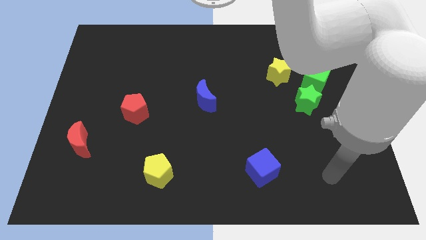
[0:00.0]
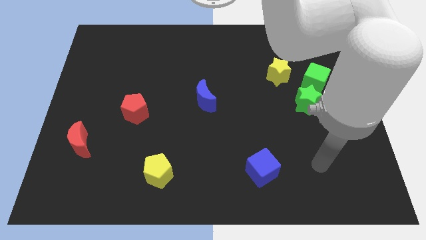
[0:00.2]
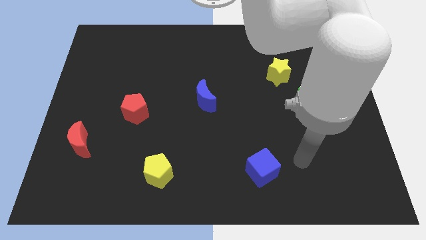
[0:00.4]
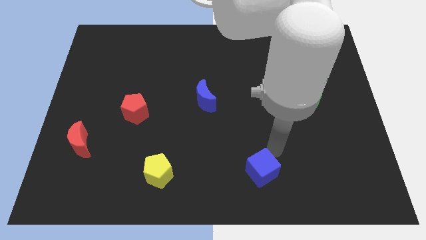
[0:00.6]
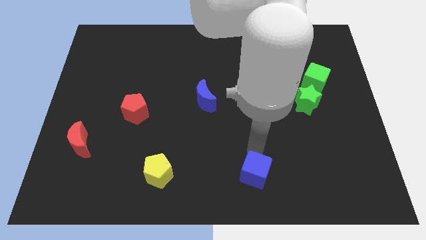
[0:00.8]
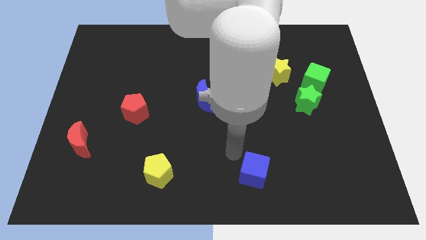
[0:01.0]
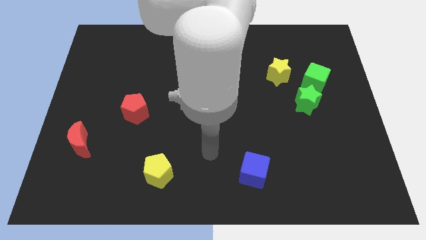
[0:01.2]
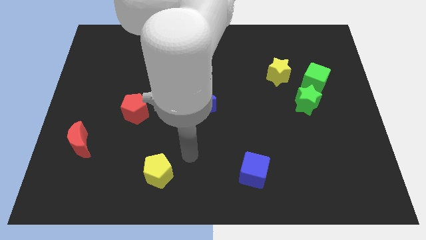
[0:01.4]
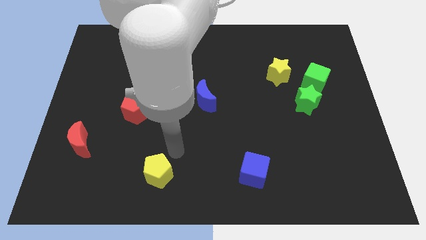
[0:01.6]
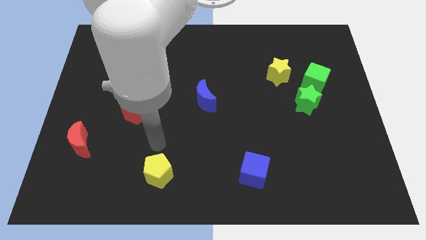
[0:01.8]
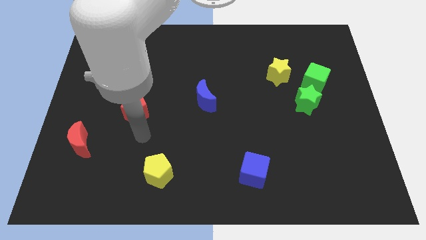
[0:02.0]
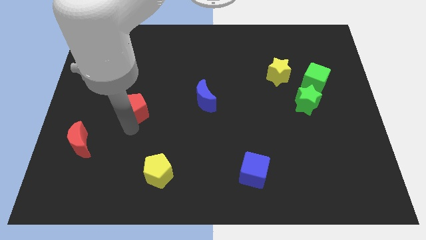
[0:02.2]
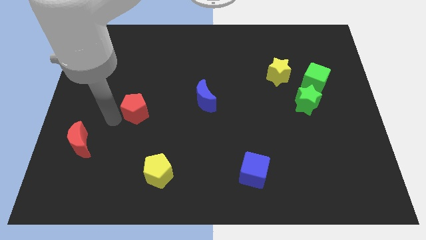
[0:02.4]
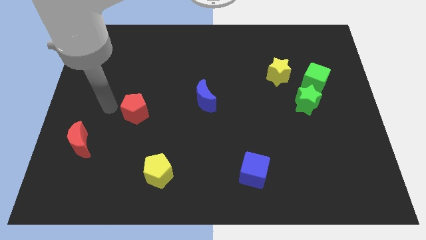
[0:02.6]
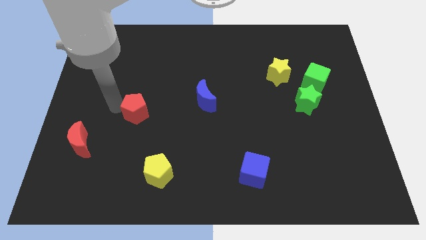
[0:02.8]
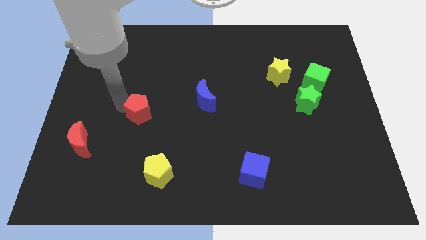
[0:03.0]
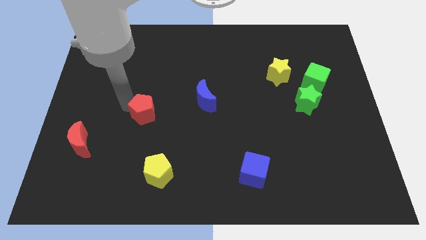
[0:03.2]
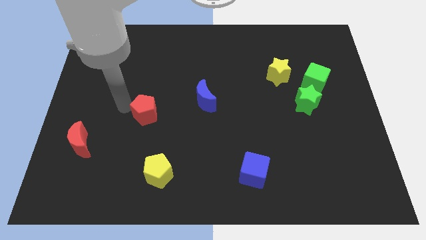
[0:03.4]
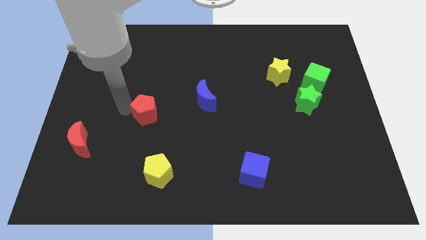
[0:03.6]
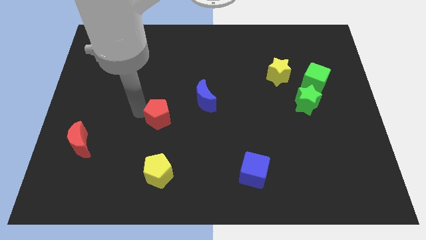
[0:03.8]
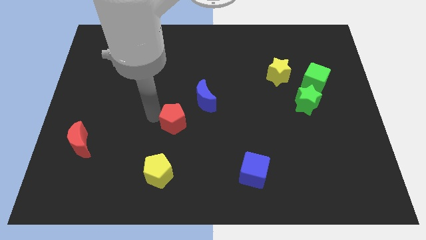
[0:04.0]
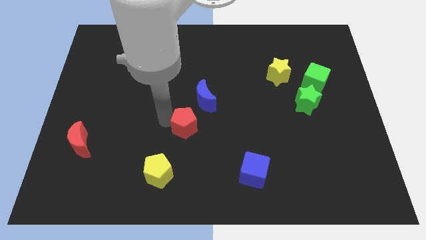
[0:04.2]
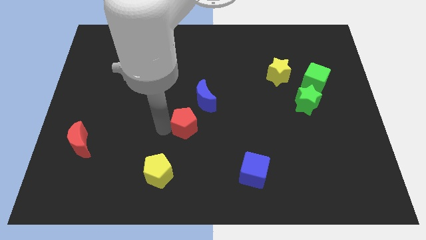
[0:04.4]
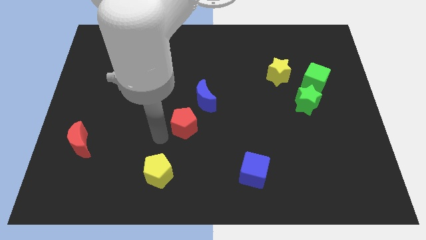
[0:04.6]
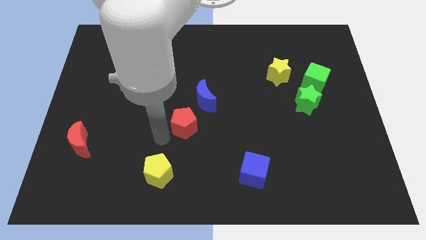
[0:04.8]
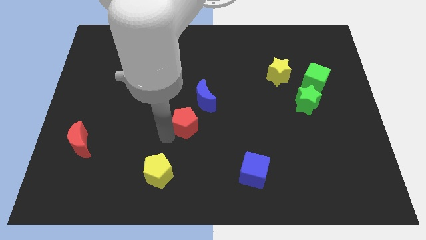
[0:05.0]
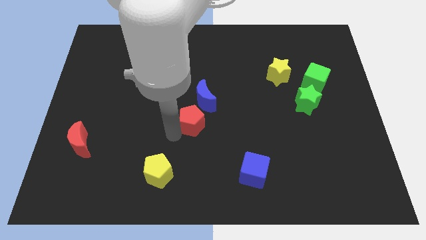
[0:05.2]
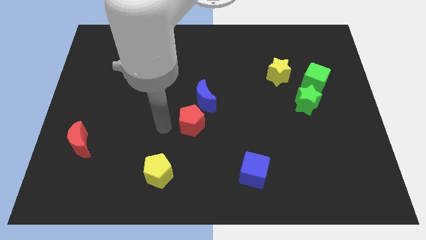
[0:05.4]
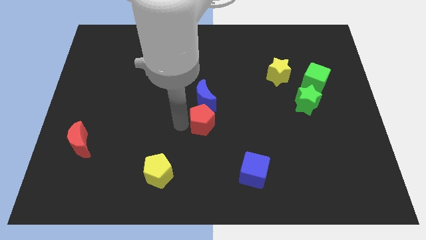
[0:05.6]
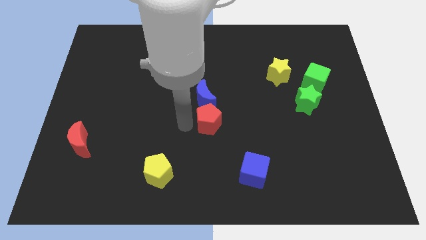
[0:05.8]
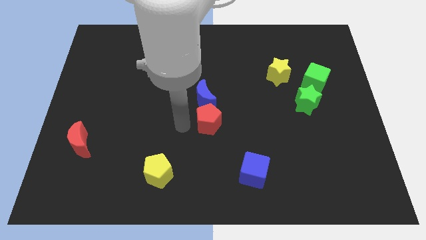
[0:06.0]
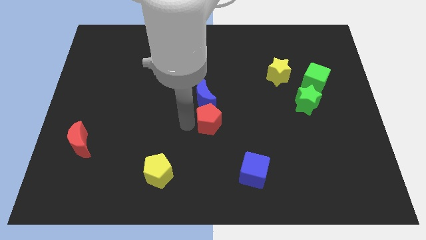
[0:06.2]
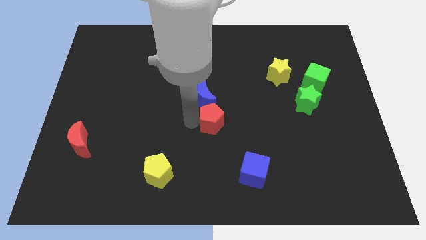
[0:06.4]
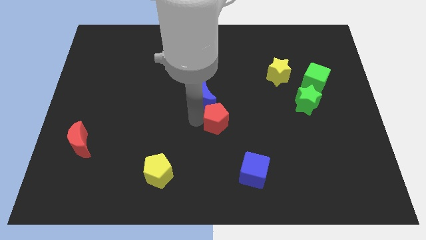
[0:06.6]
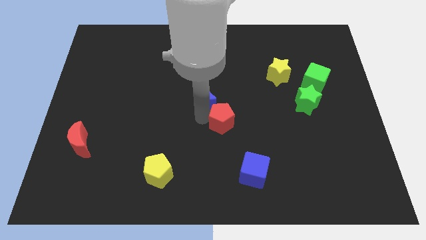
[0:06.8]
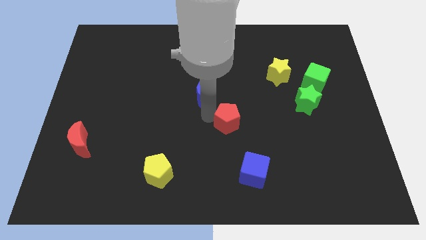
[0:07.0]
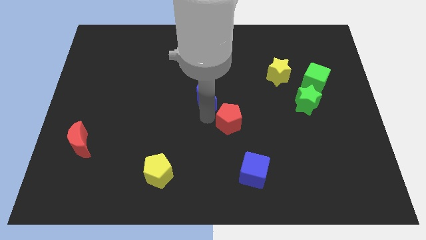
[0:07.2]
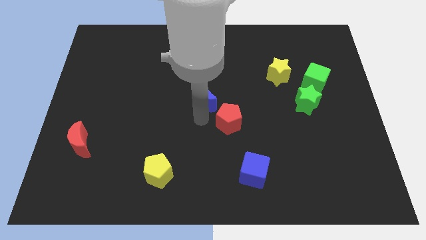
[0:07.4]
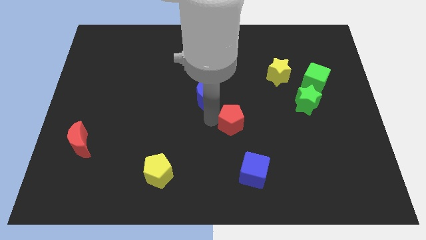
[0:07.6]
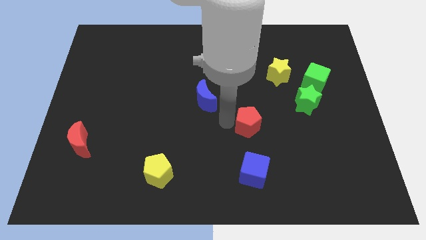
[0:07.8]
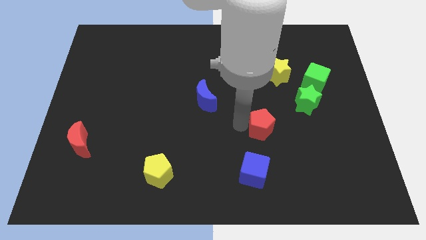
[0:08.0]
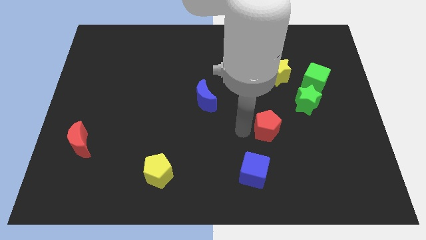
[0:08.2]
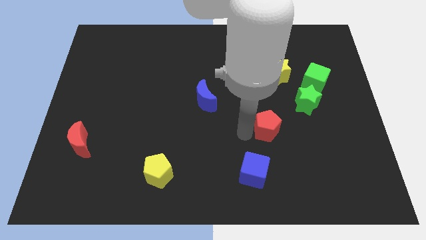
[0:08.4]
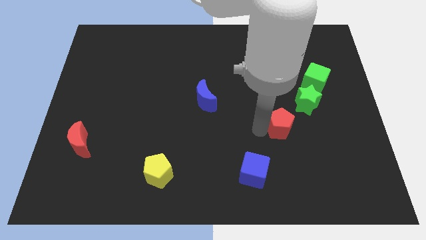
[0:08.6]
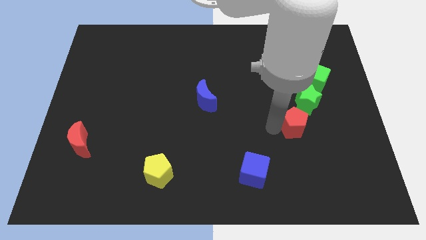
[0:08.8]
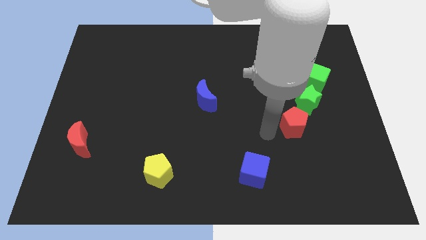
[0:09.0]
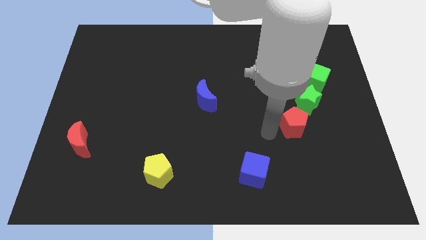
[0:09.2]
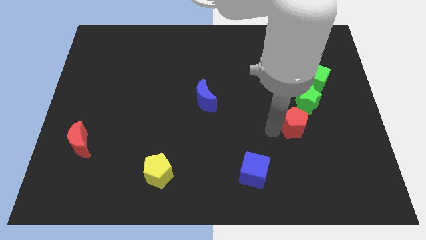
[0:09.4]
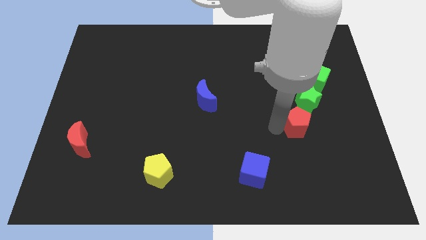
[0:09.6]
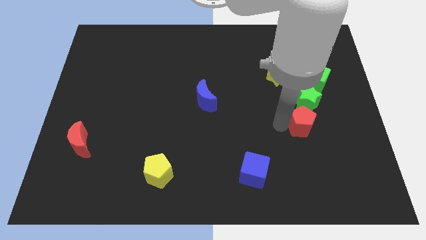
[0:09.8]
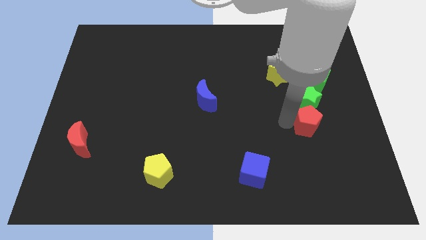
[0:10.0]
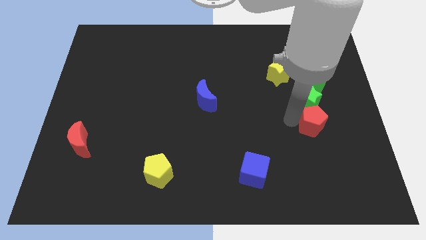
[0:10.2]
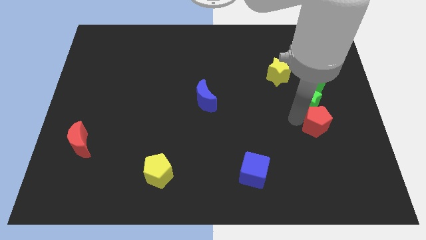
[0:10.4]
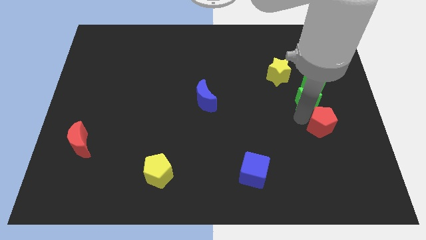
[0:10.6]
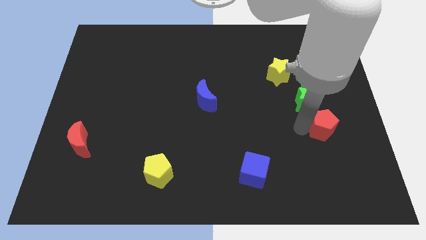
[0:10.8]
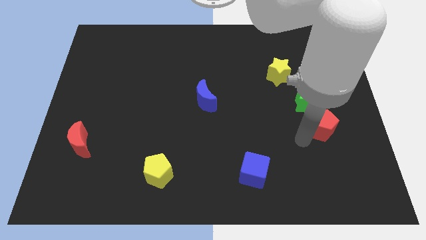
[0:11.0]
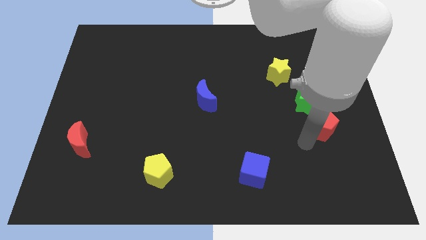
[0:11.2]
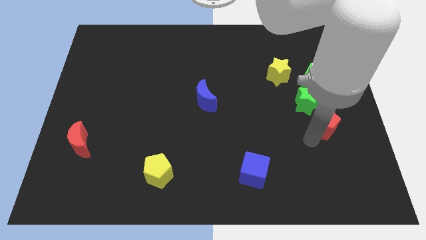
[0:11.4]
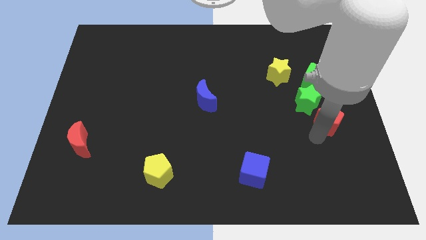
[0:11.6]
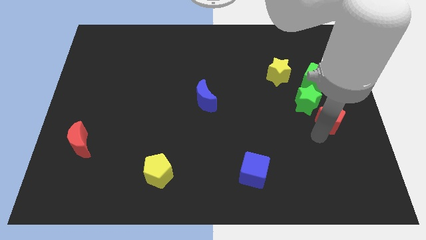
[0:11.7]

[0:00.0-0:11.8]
put the red pentagon to the center right

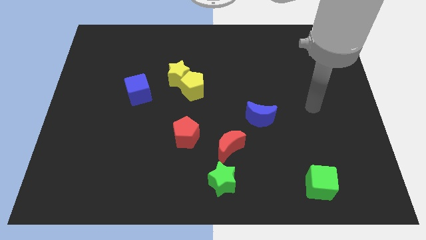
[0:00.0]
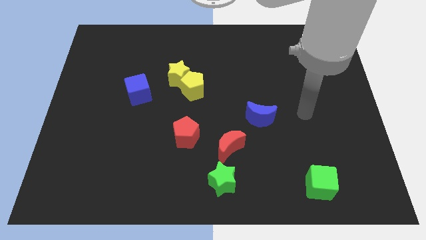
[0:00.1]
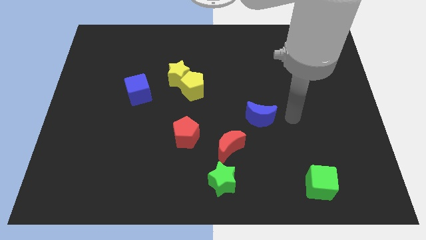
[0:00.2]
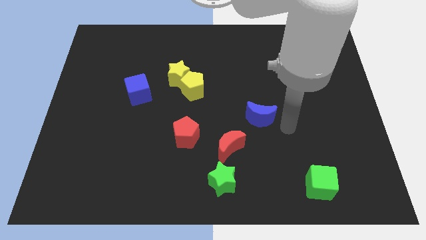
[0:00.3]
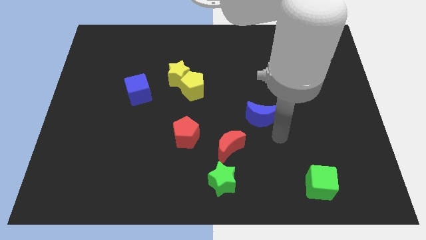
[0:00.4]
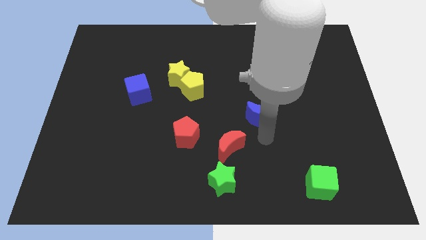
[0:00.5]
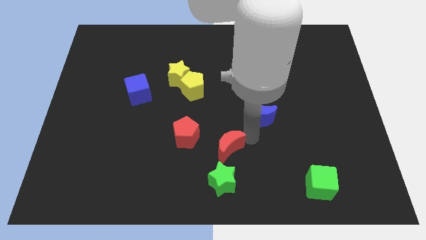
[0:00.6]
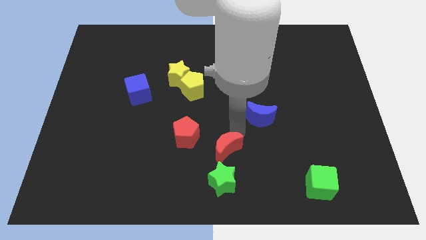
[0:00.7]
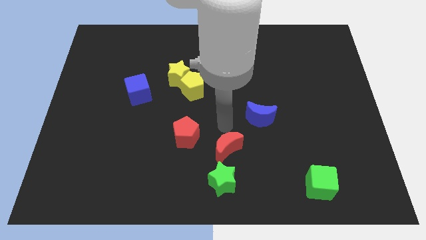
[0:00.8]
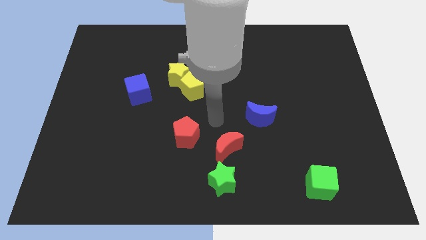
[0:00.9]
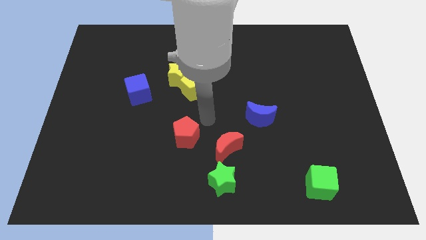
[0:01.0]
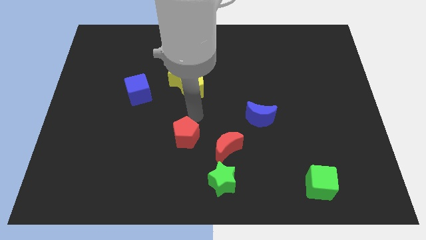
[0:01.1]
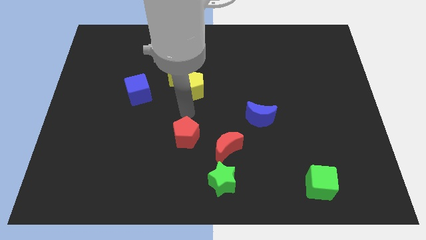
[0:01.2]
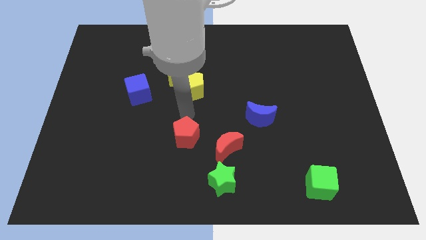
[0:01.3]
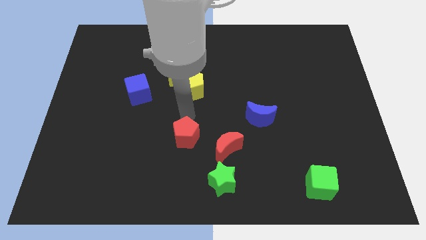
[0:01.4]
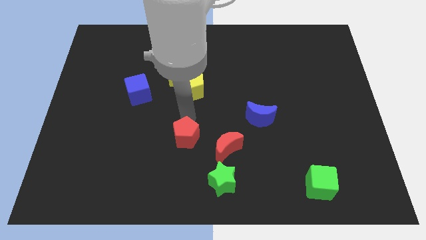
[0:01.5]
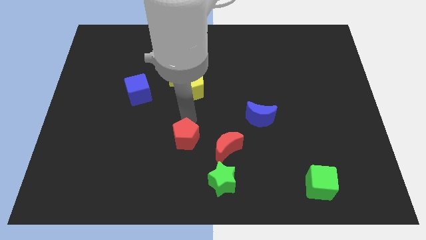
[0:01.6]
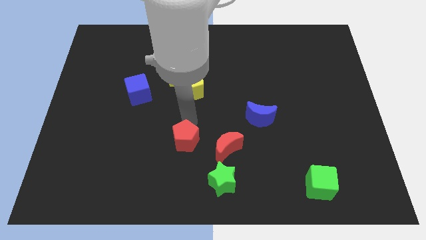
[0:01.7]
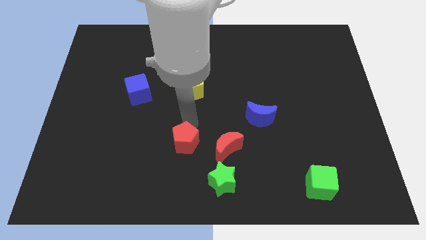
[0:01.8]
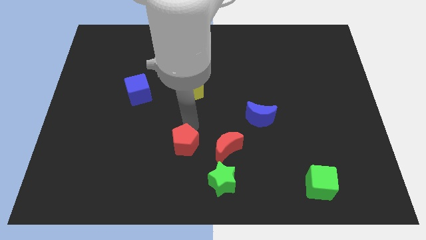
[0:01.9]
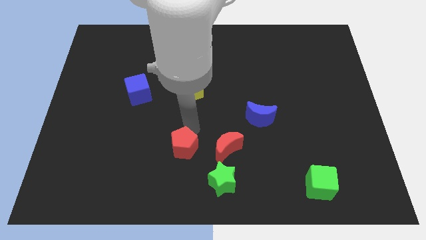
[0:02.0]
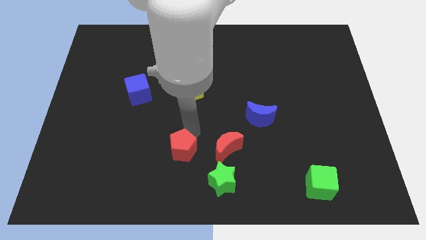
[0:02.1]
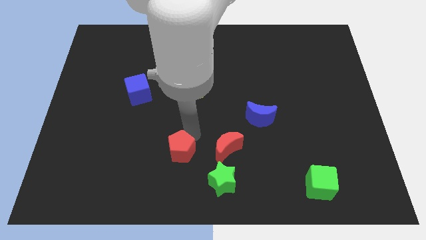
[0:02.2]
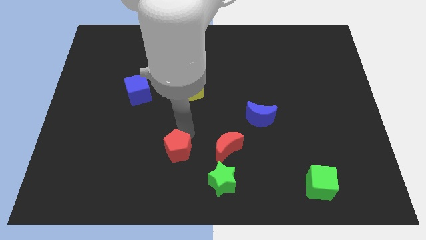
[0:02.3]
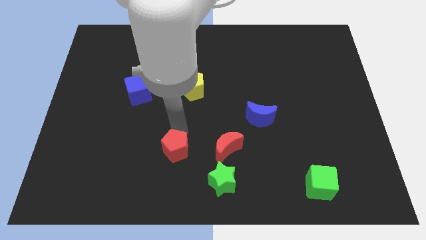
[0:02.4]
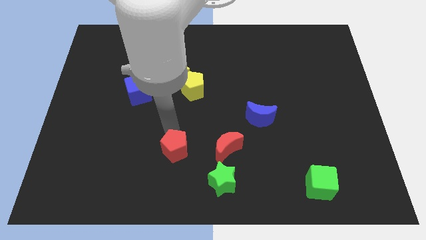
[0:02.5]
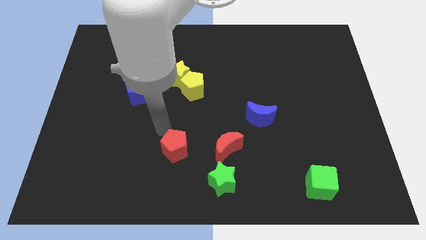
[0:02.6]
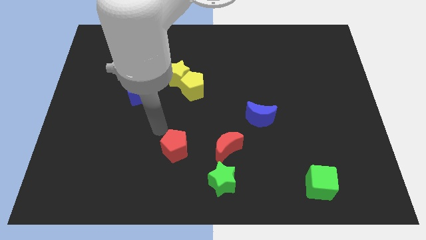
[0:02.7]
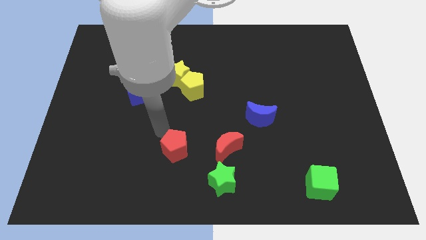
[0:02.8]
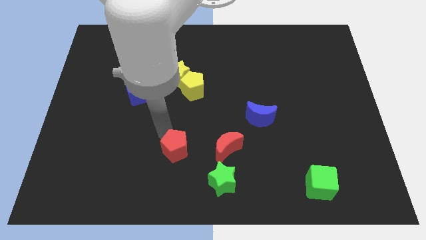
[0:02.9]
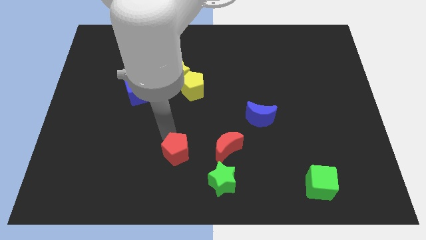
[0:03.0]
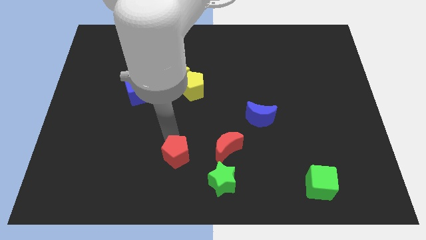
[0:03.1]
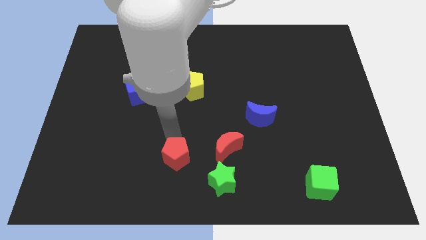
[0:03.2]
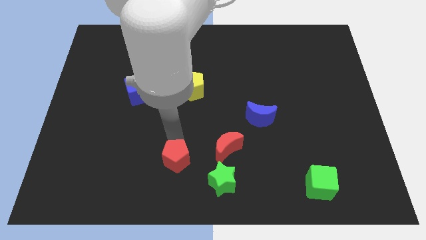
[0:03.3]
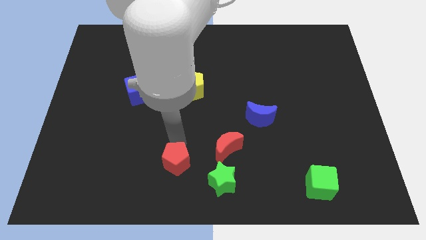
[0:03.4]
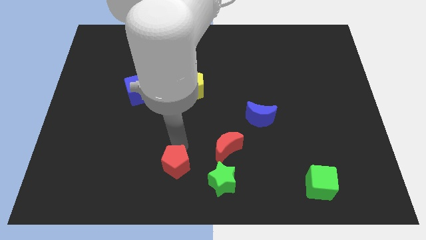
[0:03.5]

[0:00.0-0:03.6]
slide the red pentagon to the bottom side
